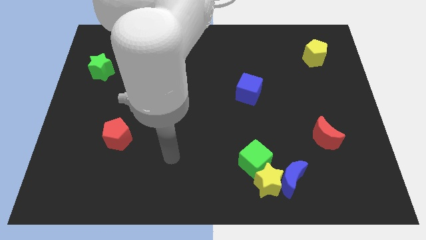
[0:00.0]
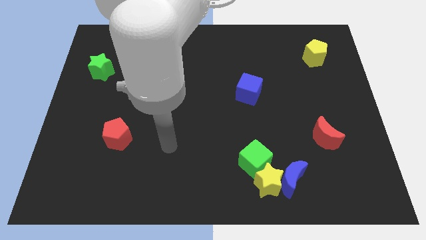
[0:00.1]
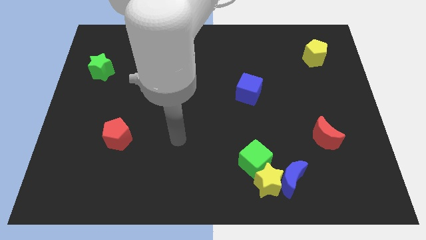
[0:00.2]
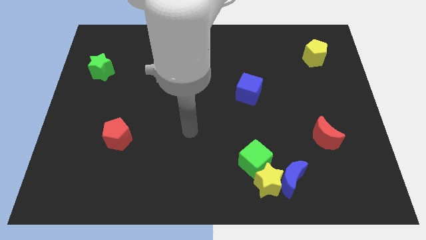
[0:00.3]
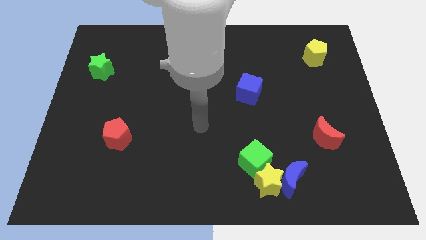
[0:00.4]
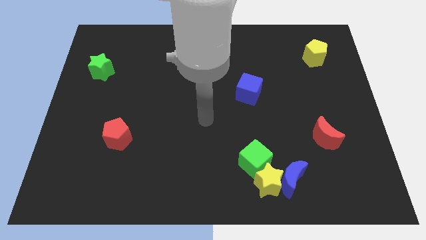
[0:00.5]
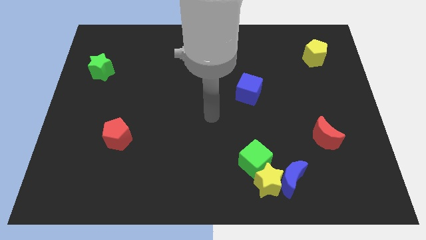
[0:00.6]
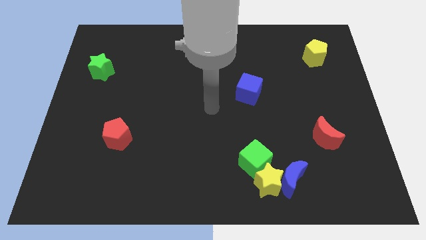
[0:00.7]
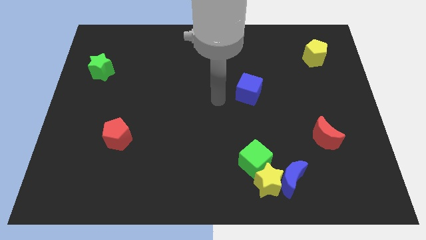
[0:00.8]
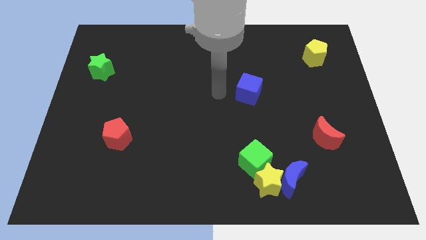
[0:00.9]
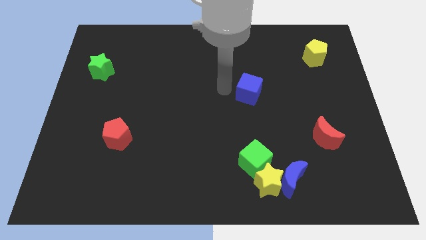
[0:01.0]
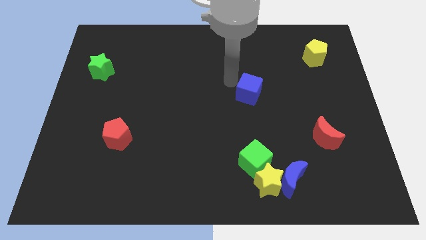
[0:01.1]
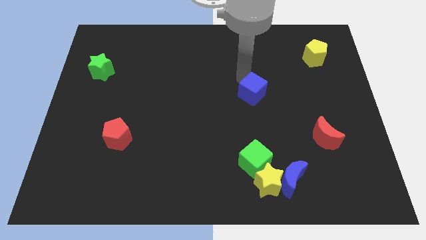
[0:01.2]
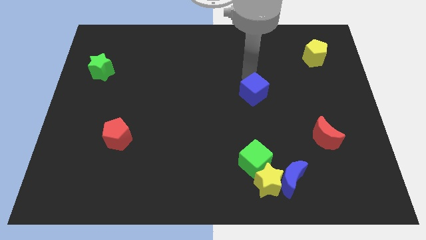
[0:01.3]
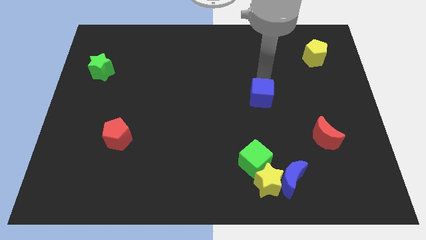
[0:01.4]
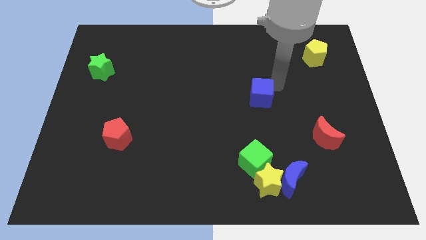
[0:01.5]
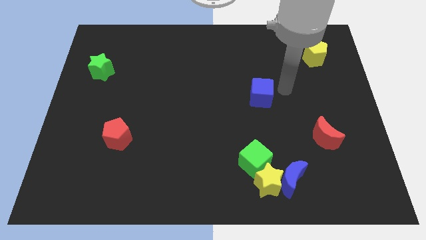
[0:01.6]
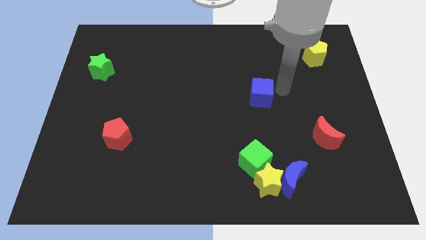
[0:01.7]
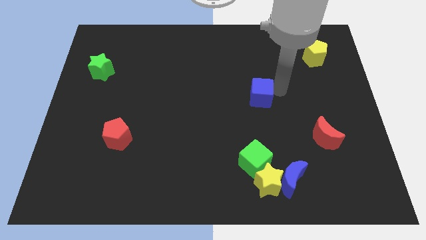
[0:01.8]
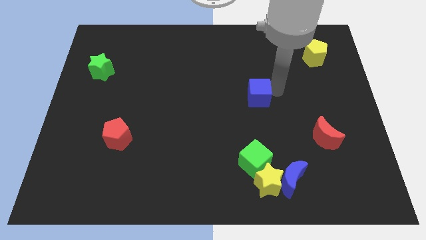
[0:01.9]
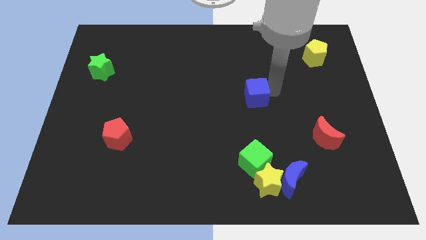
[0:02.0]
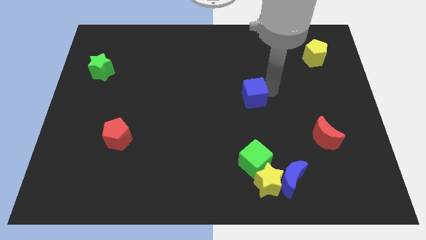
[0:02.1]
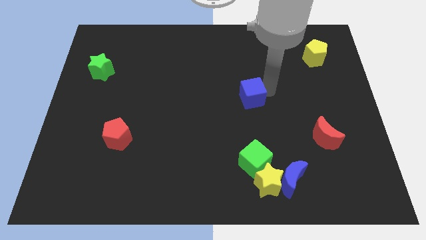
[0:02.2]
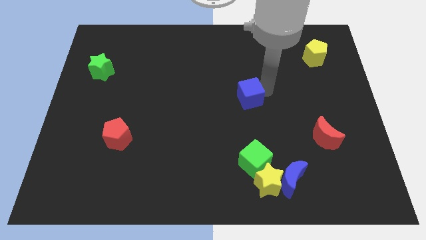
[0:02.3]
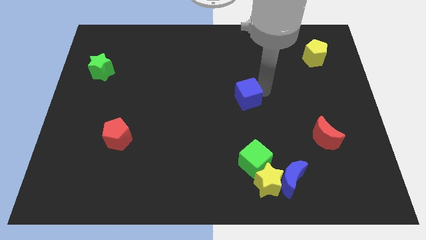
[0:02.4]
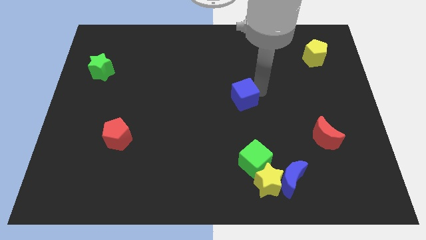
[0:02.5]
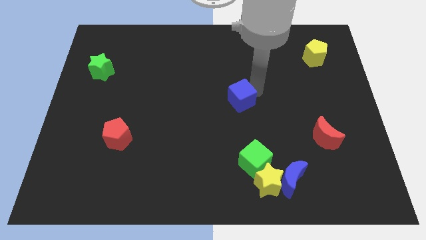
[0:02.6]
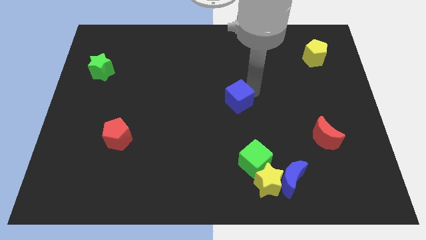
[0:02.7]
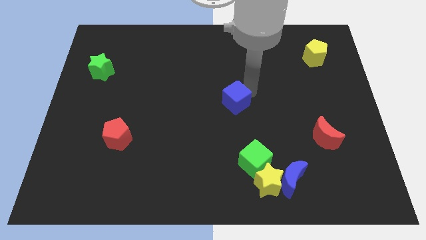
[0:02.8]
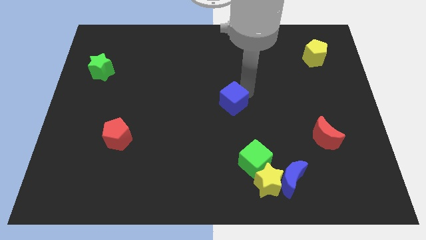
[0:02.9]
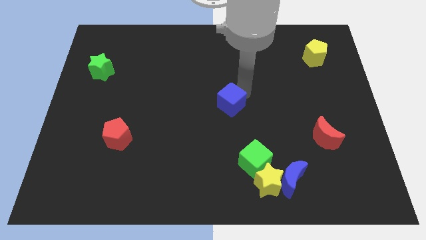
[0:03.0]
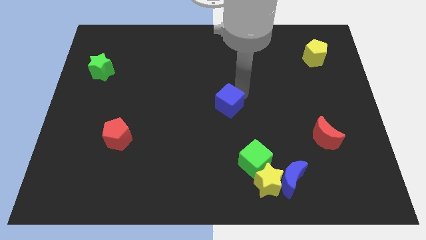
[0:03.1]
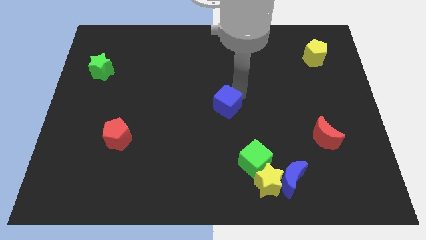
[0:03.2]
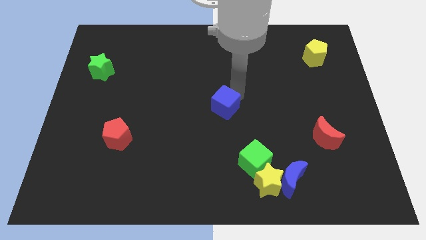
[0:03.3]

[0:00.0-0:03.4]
slide the blue cube down and then left a little

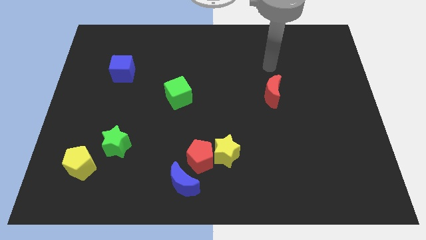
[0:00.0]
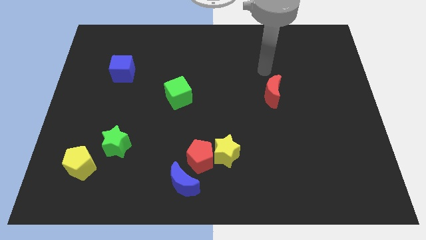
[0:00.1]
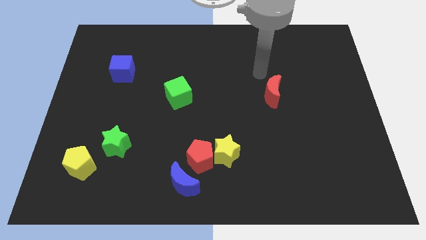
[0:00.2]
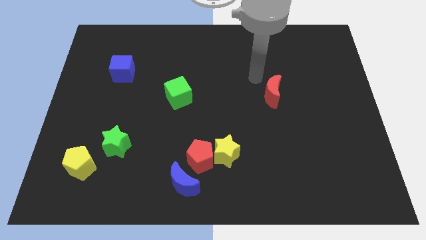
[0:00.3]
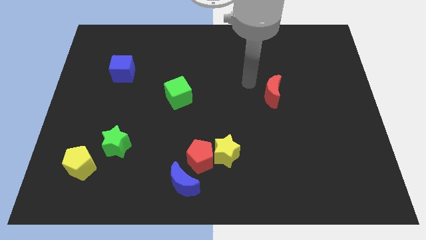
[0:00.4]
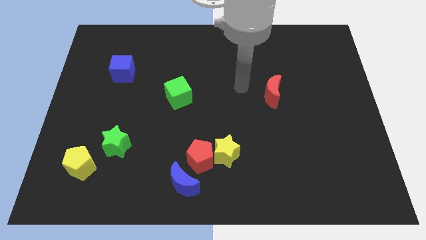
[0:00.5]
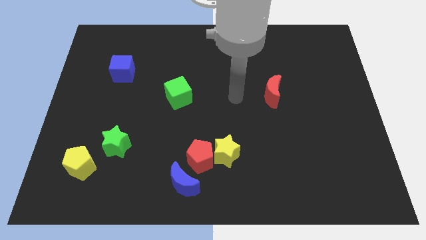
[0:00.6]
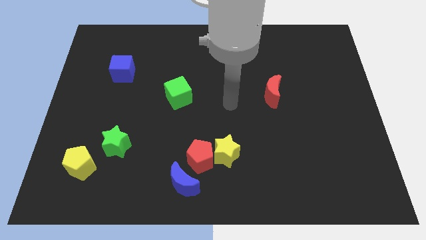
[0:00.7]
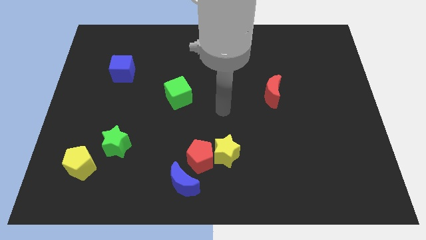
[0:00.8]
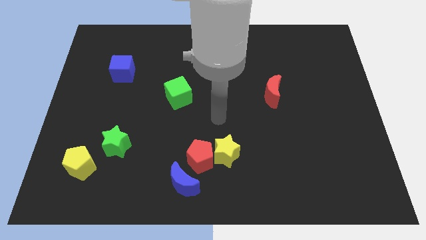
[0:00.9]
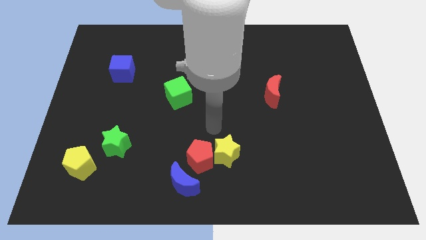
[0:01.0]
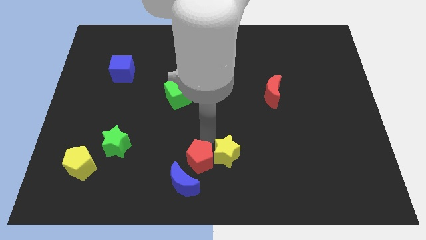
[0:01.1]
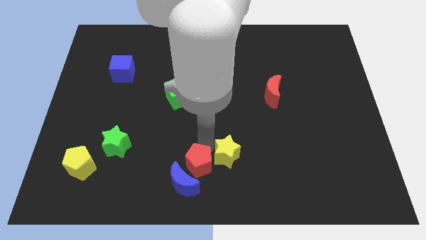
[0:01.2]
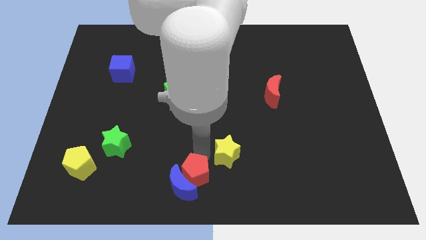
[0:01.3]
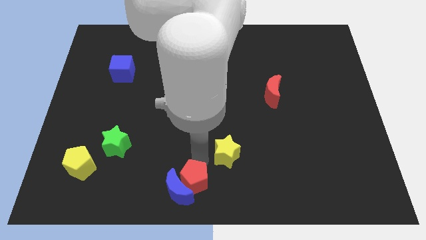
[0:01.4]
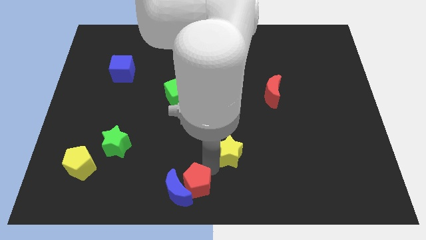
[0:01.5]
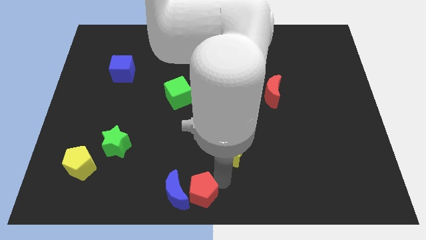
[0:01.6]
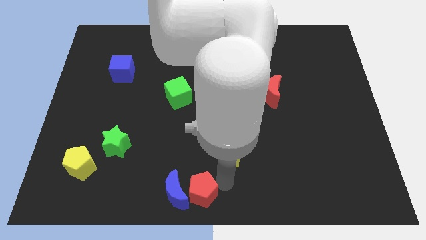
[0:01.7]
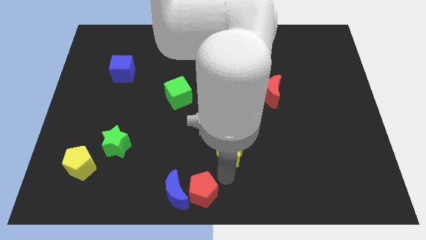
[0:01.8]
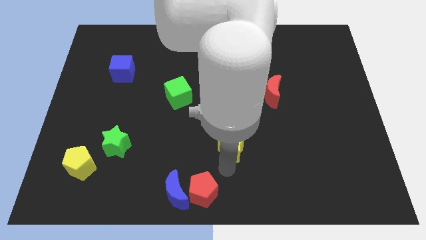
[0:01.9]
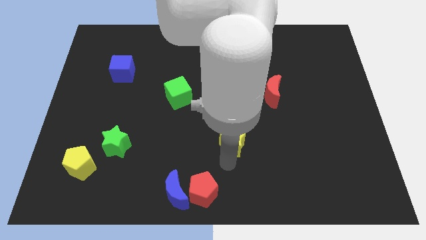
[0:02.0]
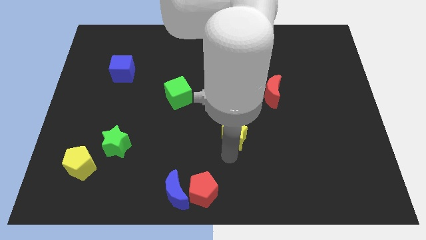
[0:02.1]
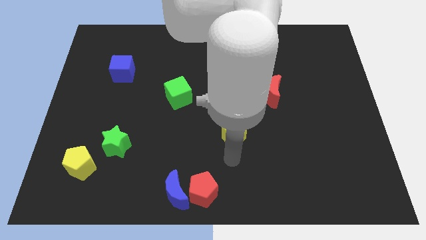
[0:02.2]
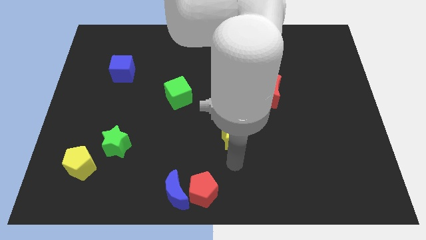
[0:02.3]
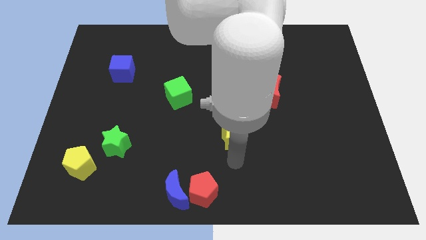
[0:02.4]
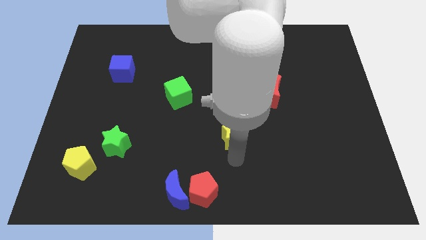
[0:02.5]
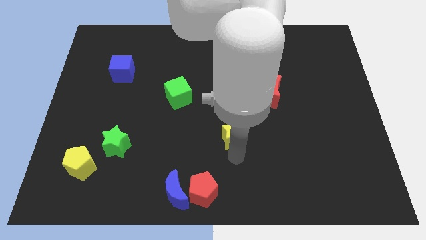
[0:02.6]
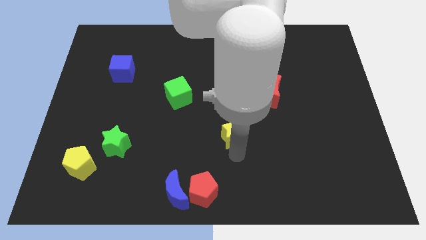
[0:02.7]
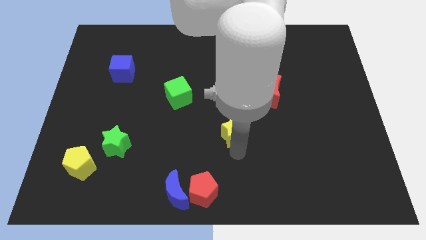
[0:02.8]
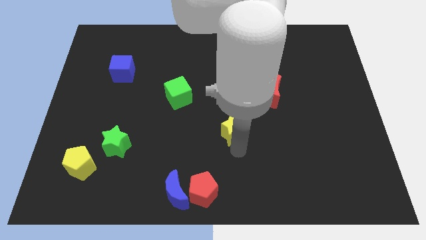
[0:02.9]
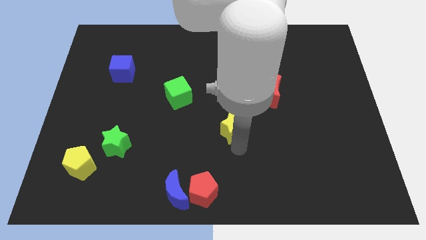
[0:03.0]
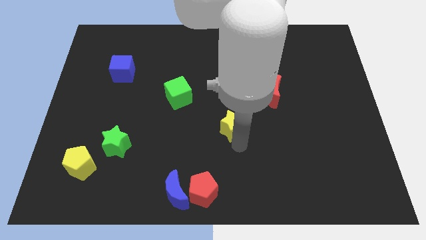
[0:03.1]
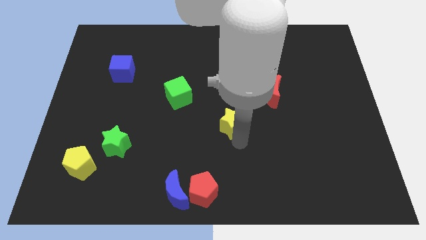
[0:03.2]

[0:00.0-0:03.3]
push the yellow star up somewhat

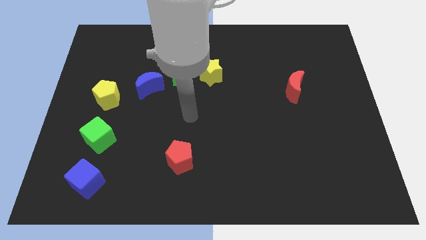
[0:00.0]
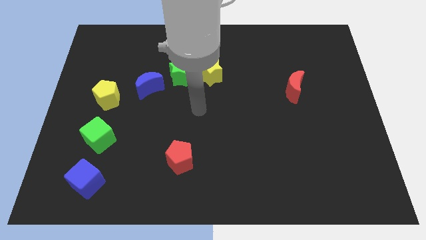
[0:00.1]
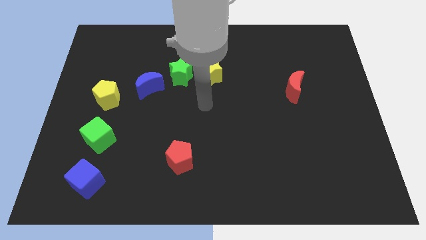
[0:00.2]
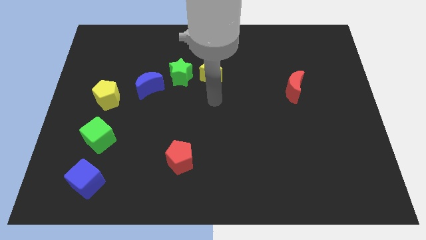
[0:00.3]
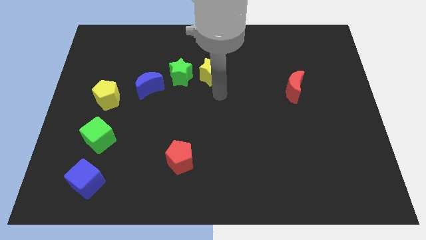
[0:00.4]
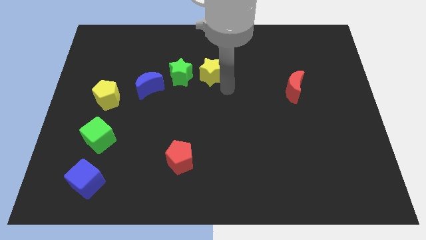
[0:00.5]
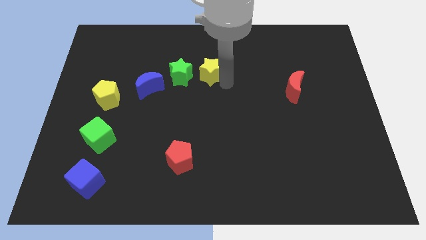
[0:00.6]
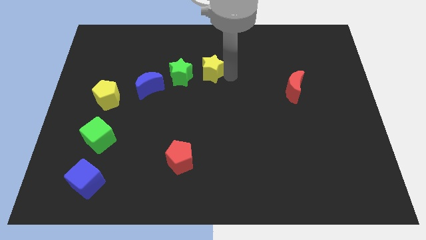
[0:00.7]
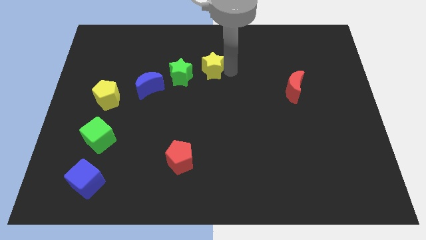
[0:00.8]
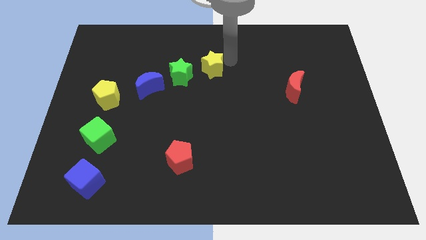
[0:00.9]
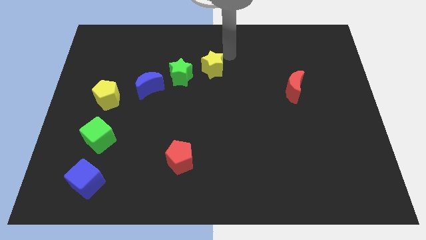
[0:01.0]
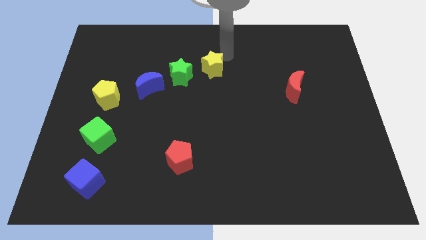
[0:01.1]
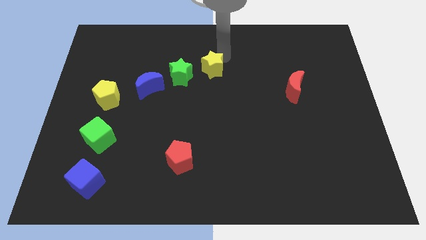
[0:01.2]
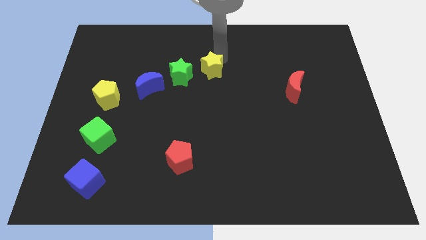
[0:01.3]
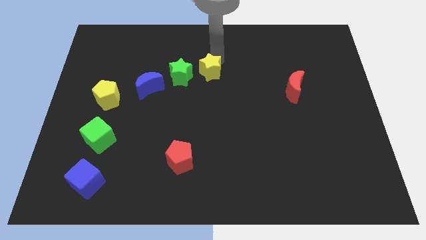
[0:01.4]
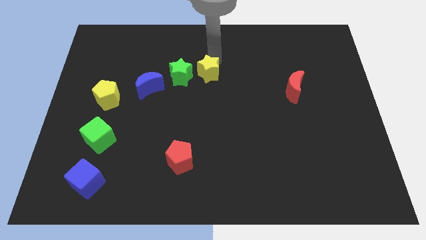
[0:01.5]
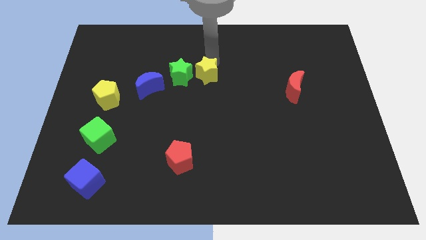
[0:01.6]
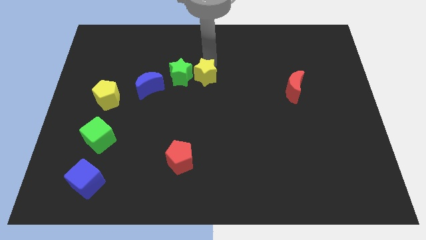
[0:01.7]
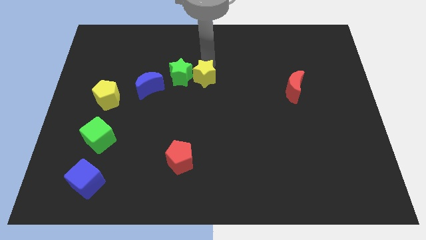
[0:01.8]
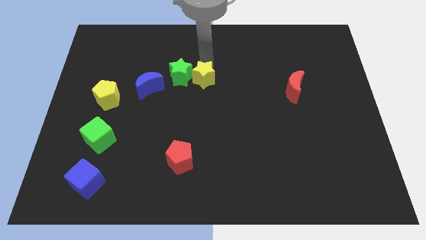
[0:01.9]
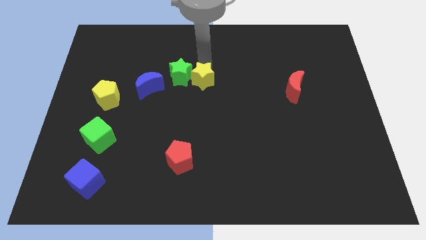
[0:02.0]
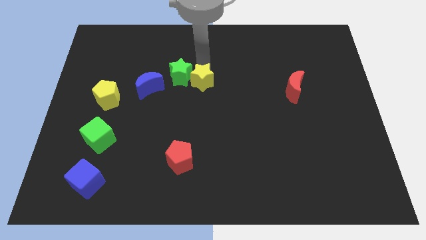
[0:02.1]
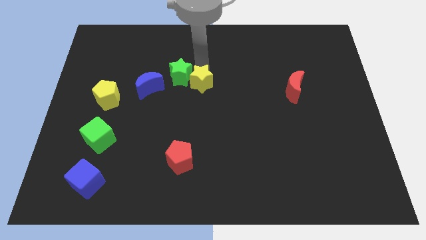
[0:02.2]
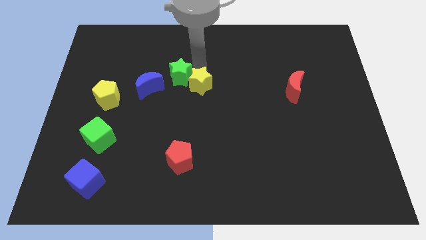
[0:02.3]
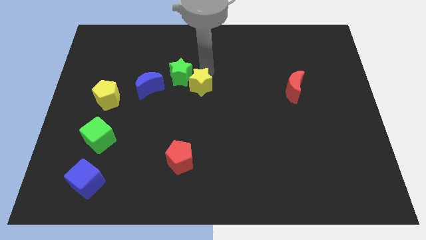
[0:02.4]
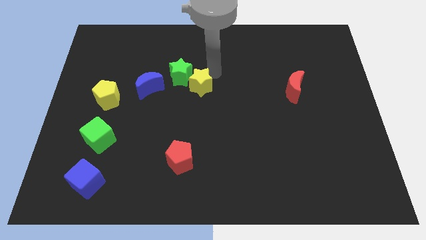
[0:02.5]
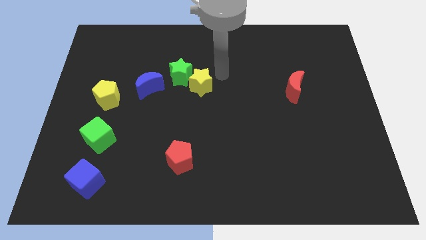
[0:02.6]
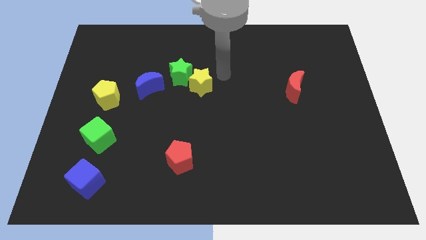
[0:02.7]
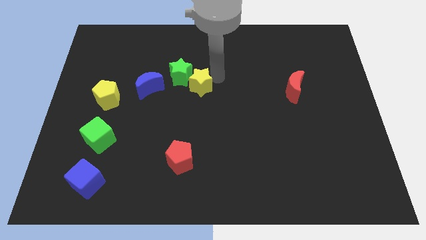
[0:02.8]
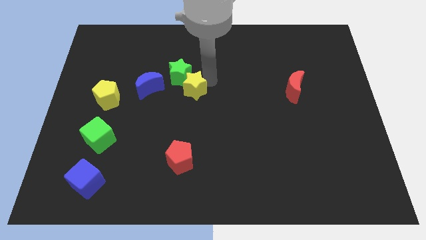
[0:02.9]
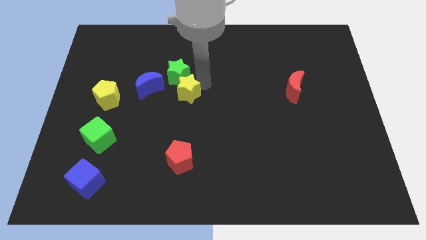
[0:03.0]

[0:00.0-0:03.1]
slide the yellow star a little bit down and then left
